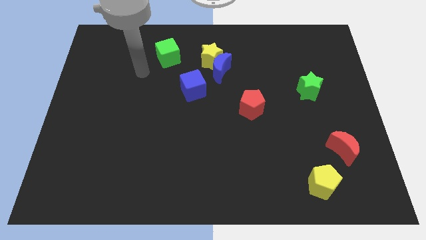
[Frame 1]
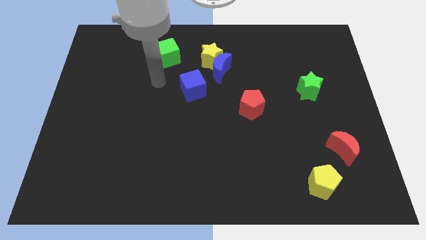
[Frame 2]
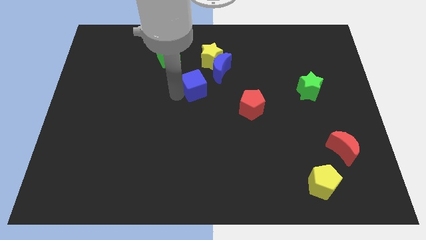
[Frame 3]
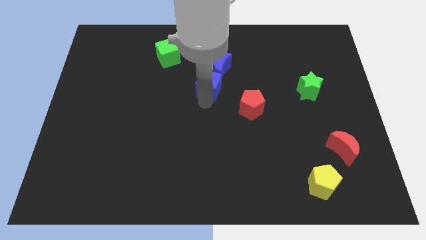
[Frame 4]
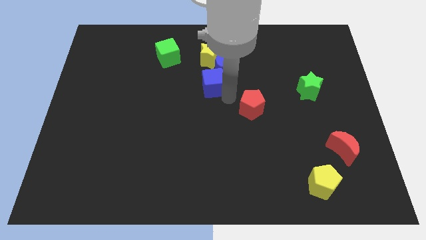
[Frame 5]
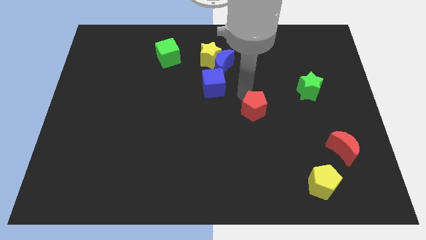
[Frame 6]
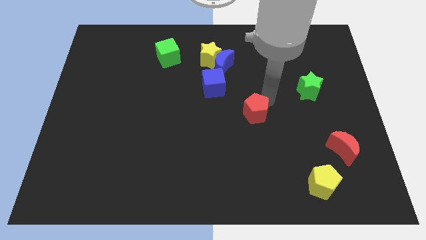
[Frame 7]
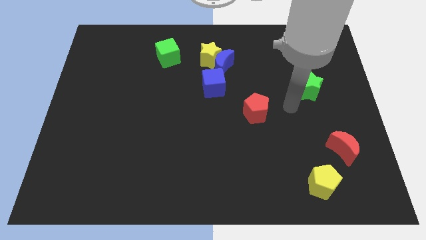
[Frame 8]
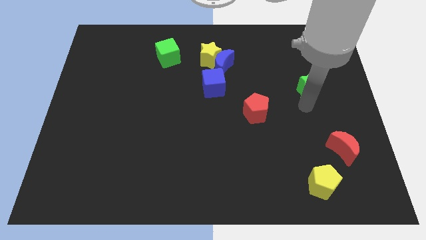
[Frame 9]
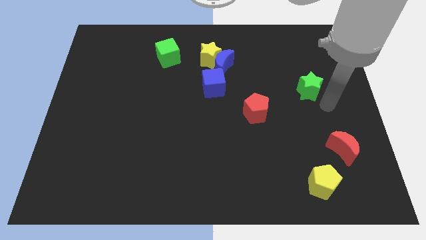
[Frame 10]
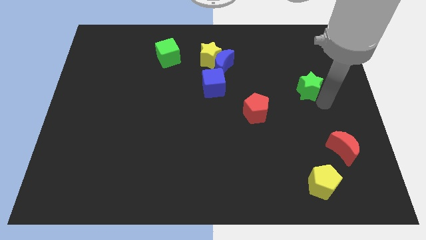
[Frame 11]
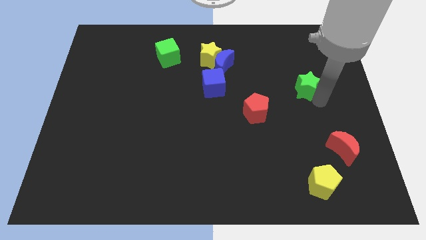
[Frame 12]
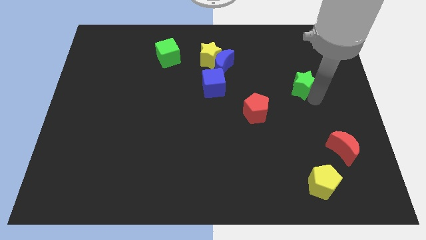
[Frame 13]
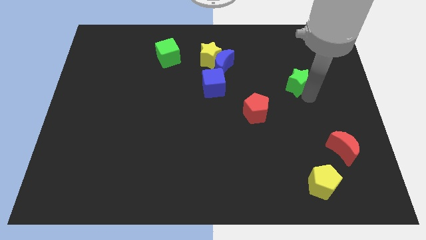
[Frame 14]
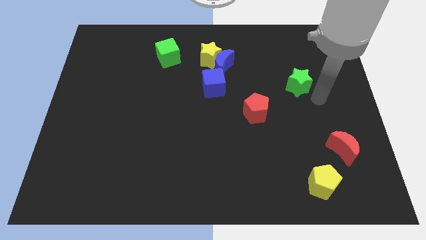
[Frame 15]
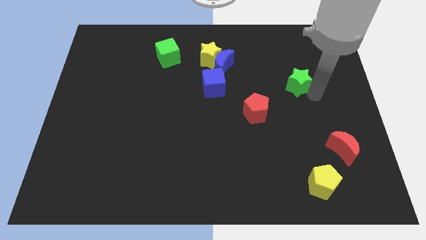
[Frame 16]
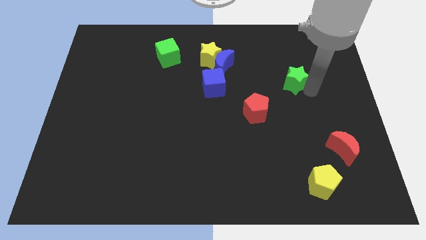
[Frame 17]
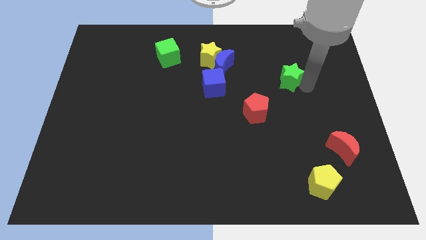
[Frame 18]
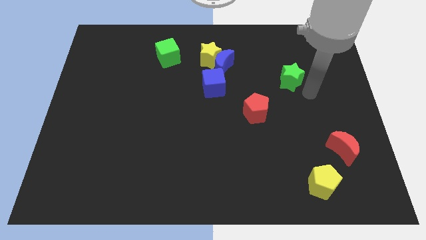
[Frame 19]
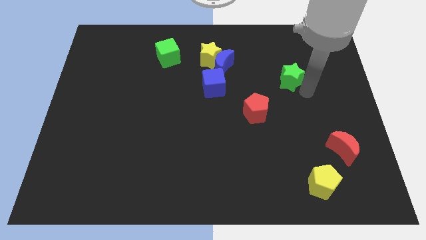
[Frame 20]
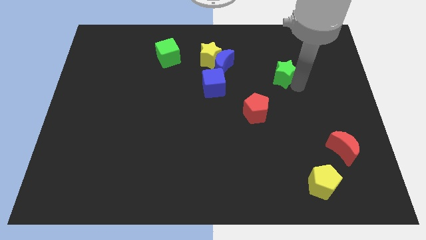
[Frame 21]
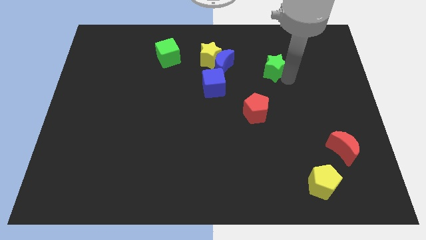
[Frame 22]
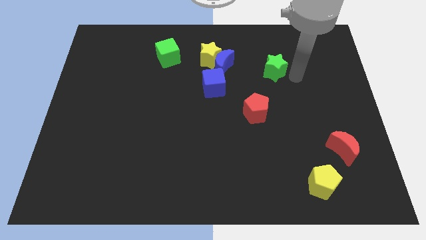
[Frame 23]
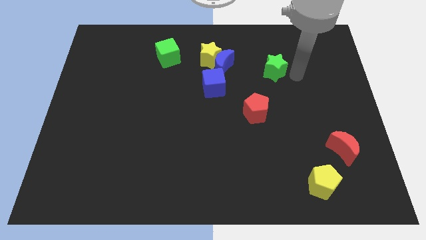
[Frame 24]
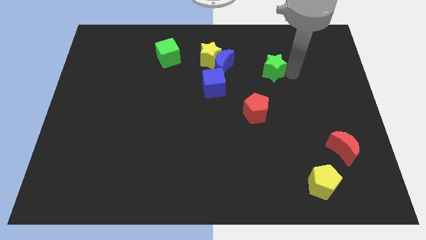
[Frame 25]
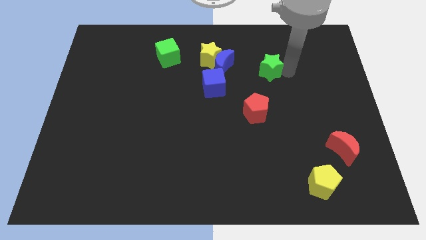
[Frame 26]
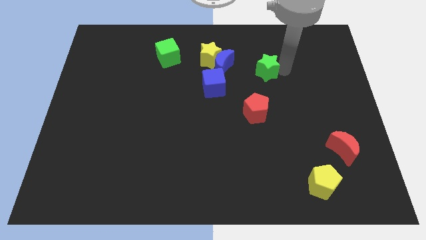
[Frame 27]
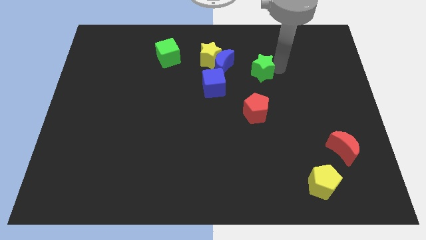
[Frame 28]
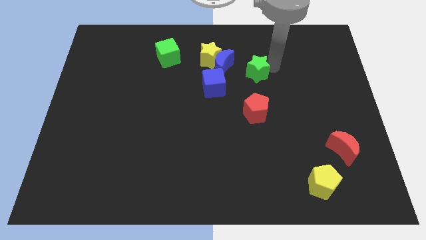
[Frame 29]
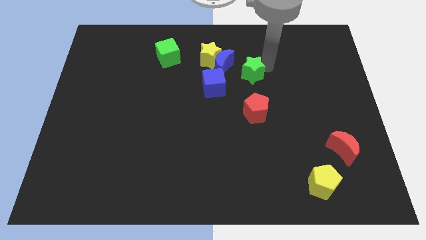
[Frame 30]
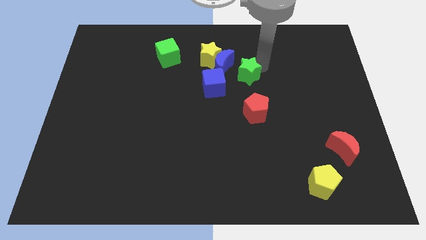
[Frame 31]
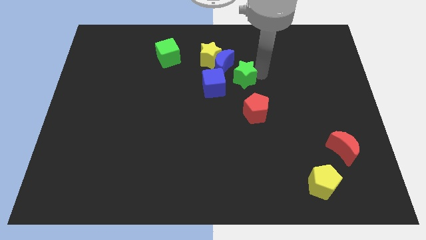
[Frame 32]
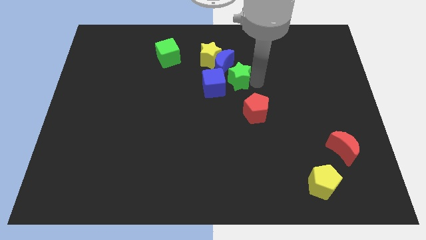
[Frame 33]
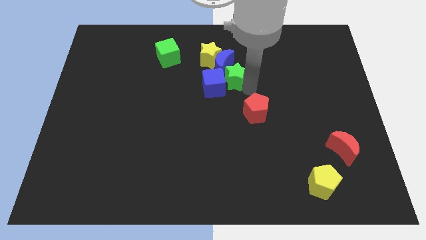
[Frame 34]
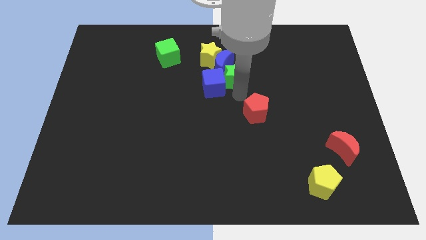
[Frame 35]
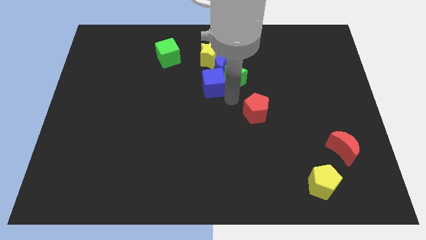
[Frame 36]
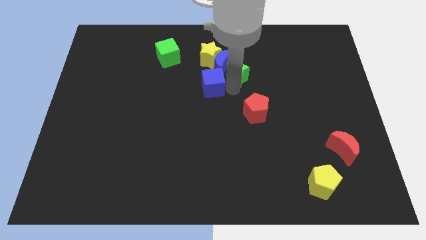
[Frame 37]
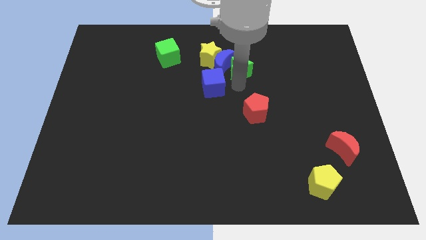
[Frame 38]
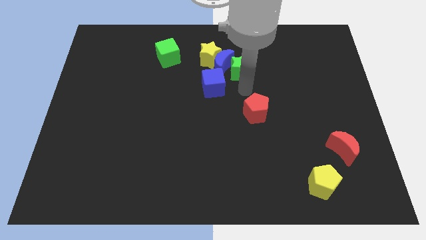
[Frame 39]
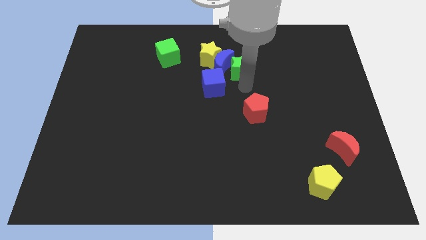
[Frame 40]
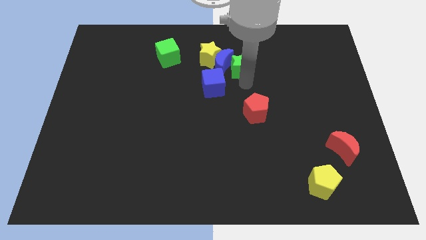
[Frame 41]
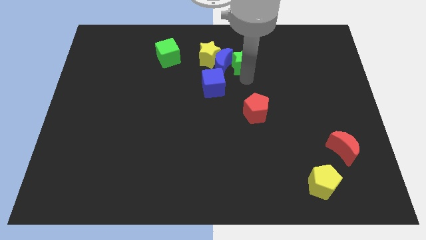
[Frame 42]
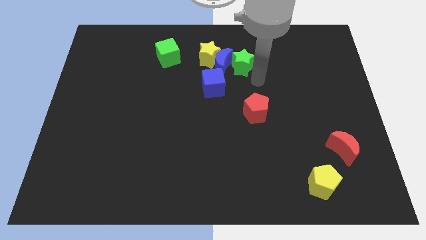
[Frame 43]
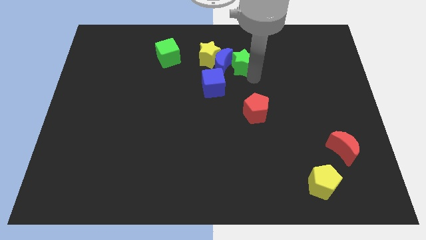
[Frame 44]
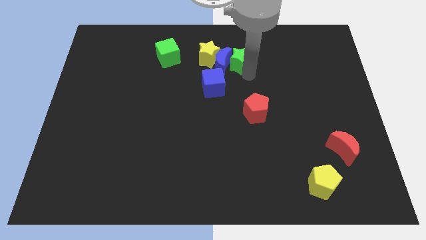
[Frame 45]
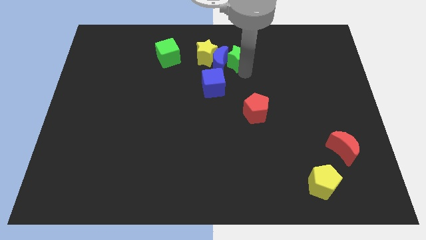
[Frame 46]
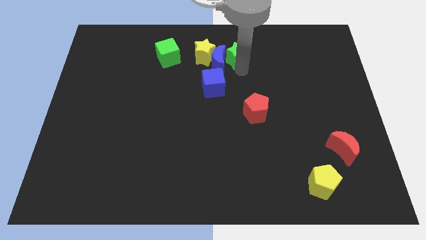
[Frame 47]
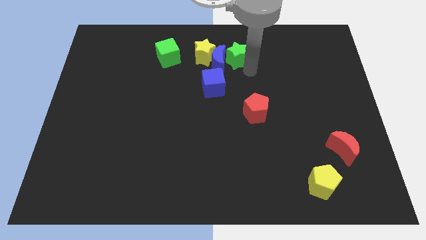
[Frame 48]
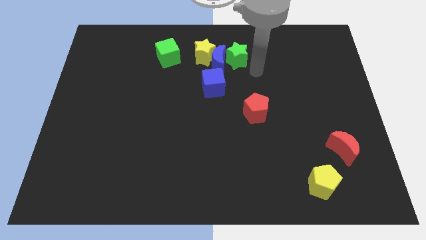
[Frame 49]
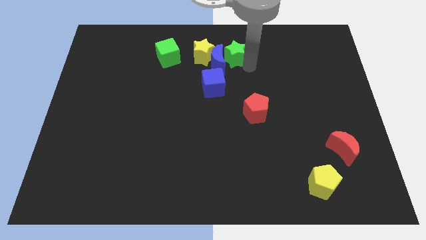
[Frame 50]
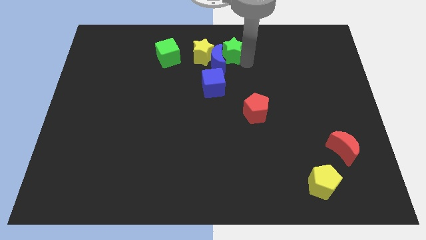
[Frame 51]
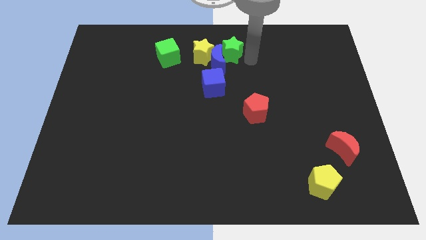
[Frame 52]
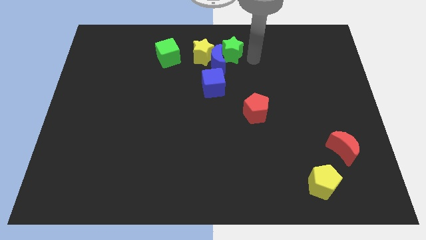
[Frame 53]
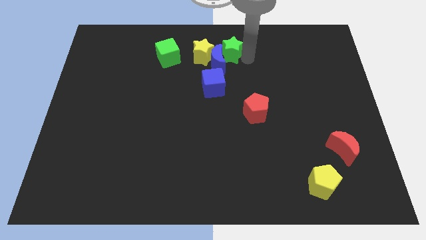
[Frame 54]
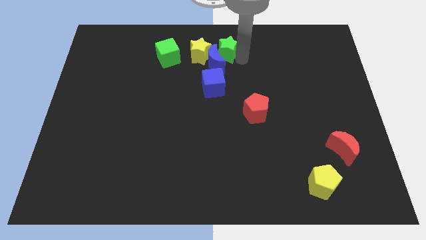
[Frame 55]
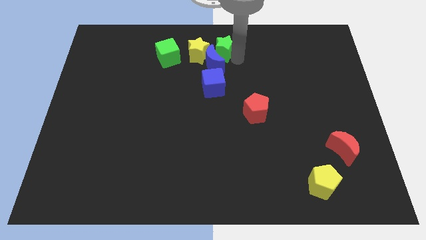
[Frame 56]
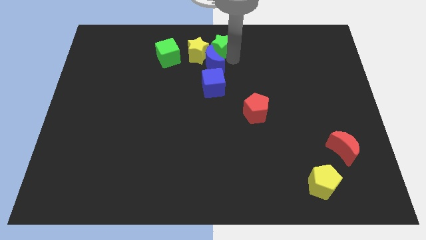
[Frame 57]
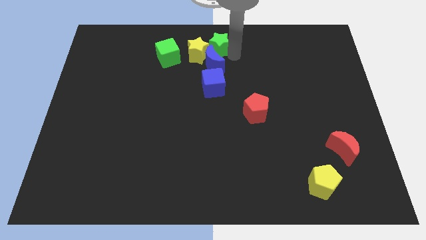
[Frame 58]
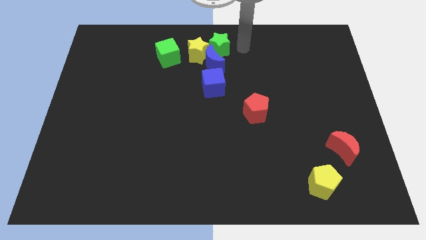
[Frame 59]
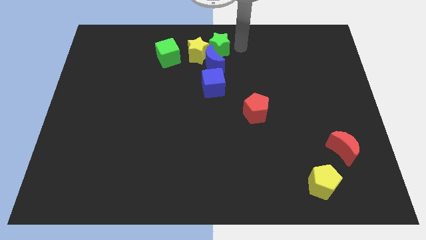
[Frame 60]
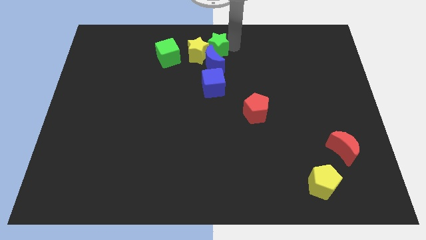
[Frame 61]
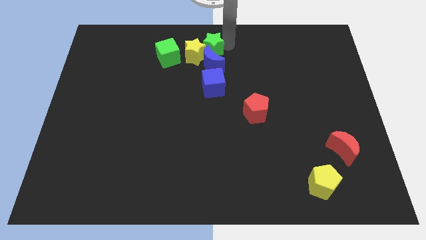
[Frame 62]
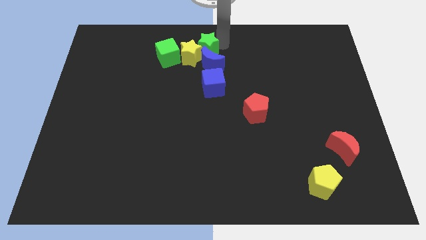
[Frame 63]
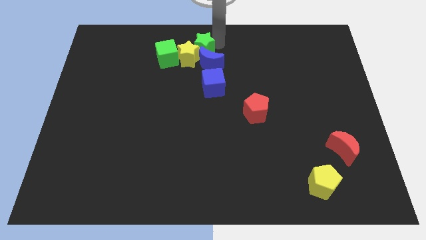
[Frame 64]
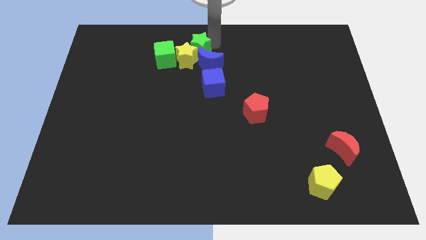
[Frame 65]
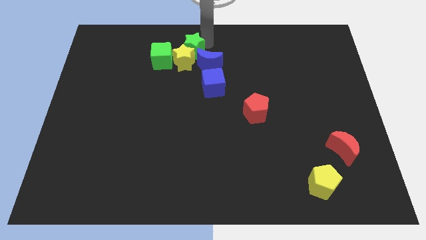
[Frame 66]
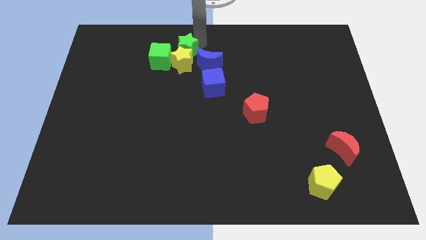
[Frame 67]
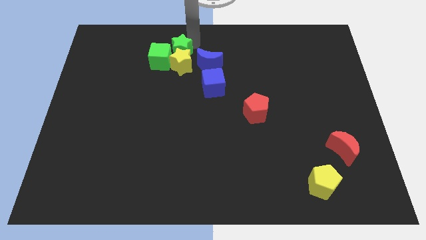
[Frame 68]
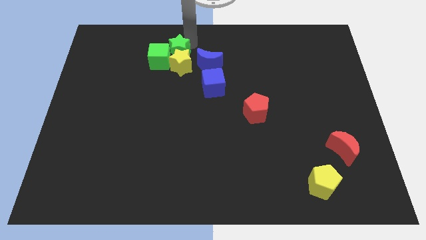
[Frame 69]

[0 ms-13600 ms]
push the green star to the green cube
